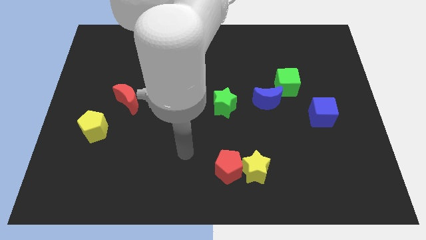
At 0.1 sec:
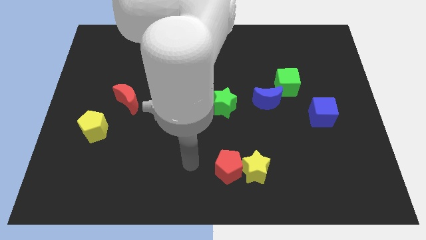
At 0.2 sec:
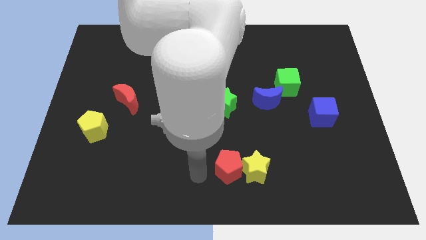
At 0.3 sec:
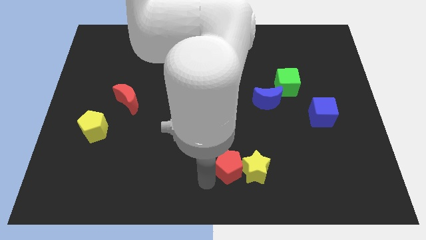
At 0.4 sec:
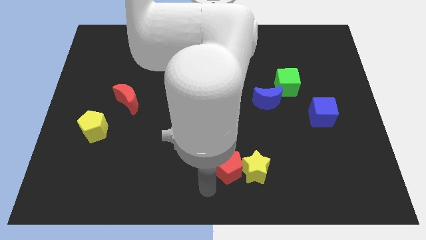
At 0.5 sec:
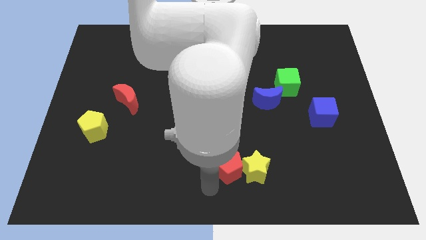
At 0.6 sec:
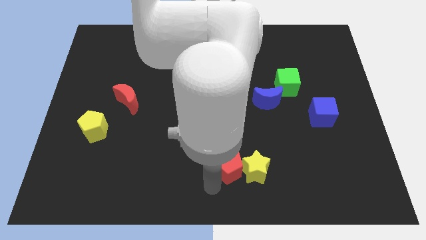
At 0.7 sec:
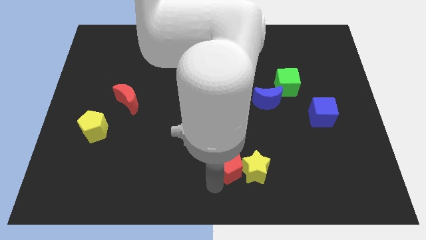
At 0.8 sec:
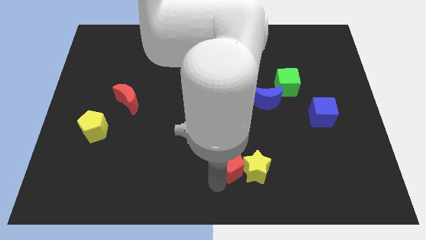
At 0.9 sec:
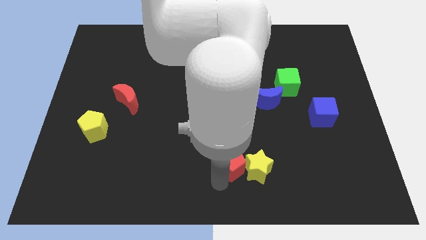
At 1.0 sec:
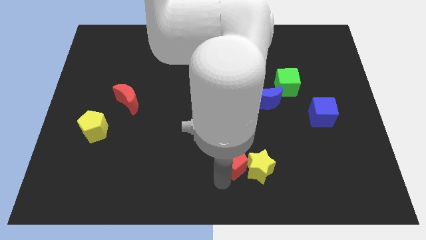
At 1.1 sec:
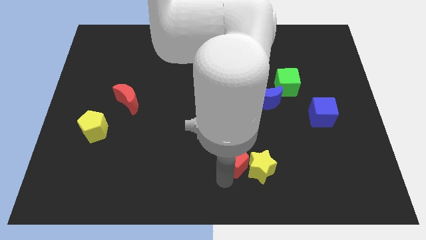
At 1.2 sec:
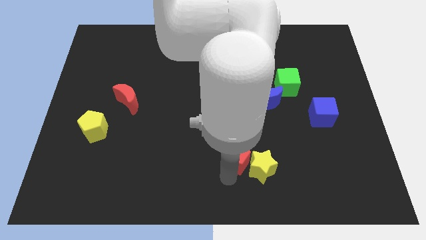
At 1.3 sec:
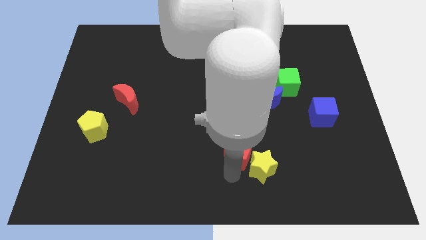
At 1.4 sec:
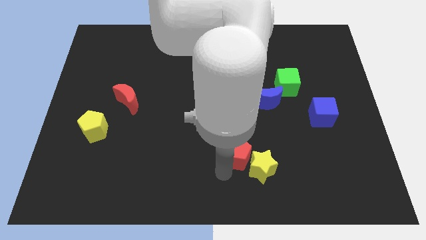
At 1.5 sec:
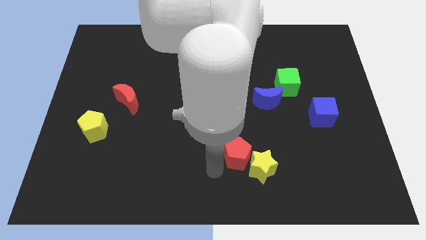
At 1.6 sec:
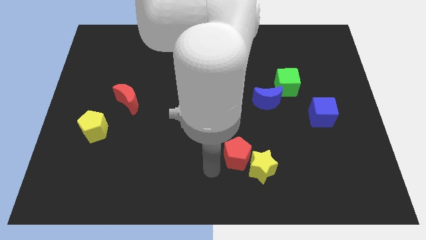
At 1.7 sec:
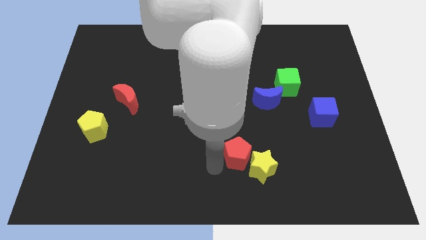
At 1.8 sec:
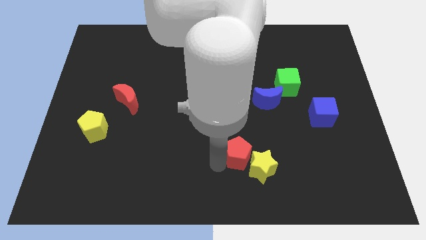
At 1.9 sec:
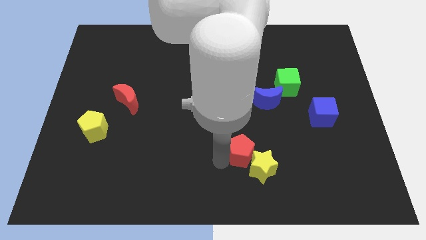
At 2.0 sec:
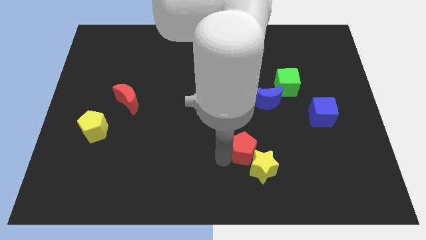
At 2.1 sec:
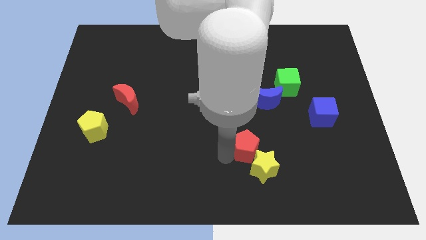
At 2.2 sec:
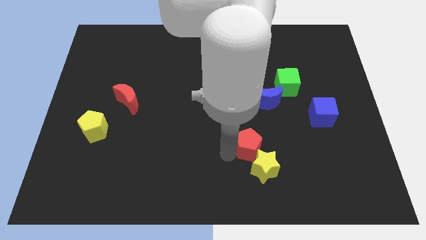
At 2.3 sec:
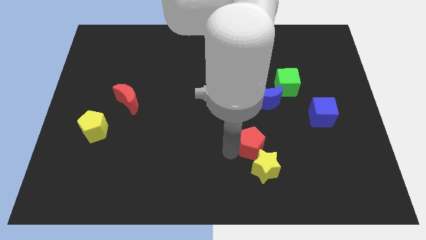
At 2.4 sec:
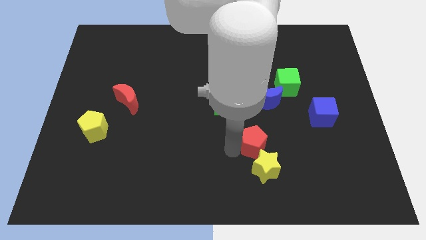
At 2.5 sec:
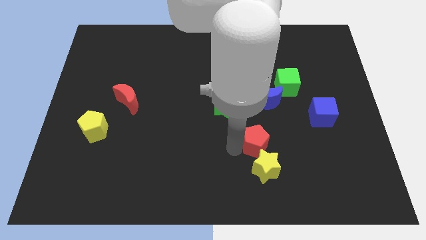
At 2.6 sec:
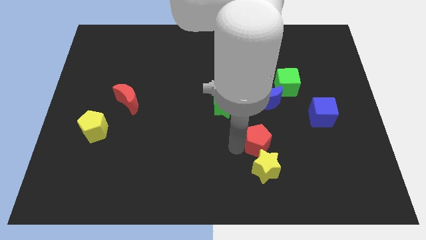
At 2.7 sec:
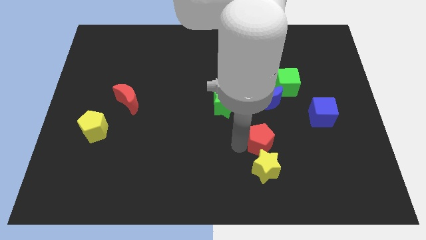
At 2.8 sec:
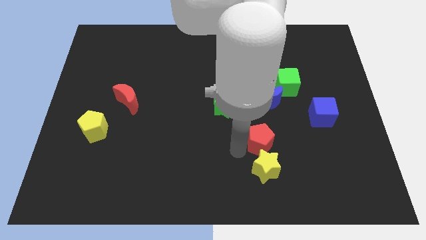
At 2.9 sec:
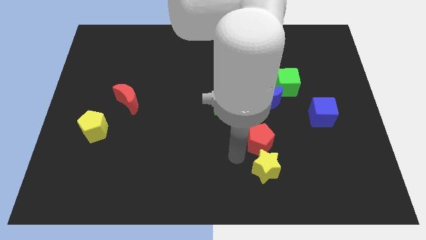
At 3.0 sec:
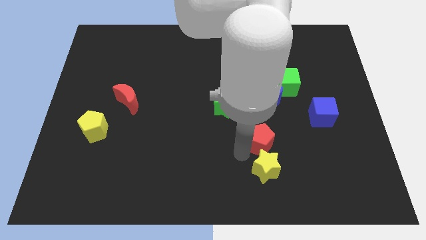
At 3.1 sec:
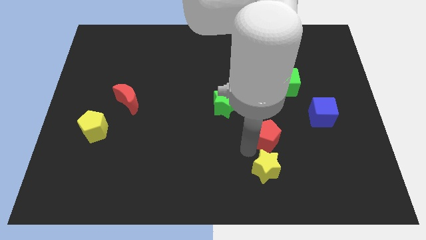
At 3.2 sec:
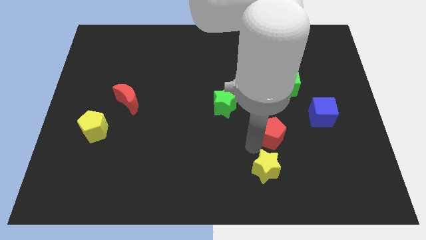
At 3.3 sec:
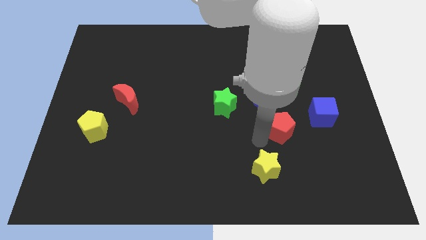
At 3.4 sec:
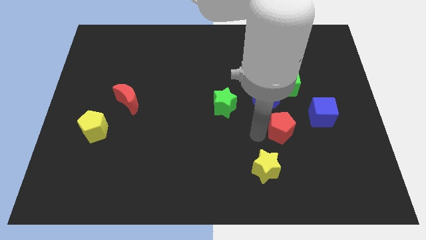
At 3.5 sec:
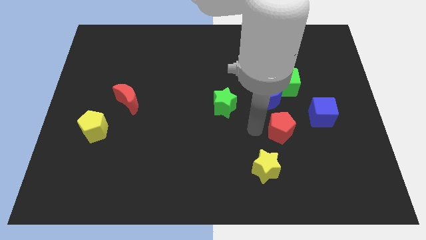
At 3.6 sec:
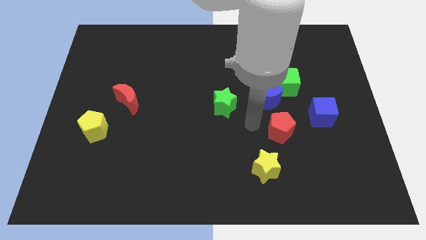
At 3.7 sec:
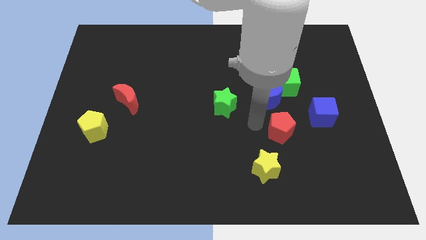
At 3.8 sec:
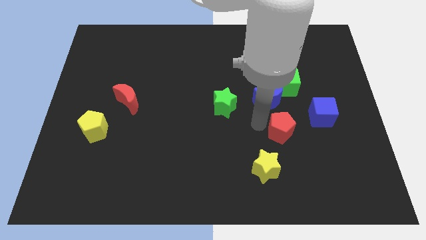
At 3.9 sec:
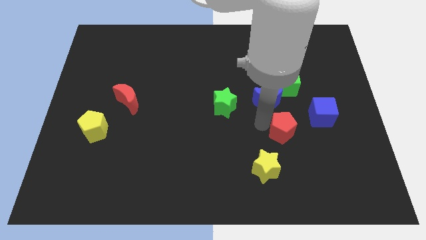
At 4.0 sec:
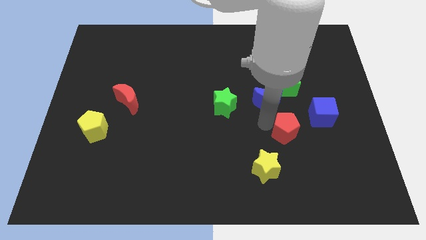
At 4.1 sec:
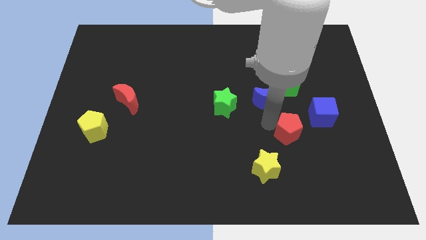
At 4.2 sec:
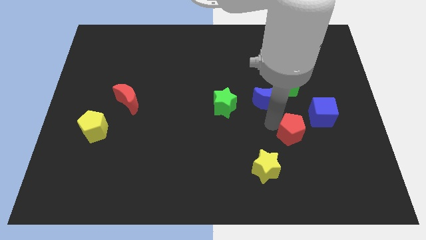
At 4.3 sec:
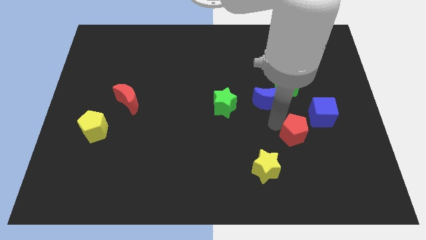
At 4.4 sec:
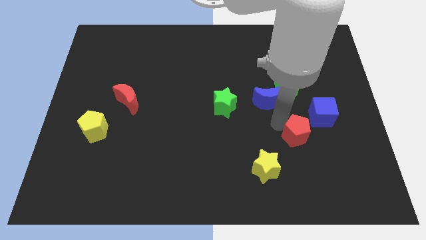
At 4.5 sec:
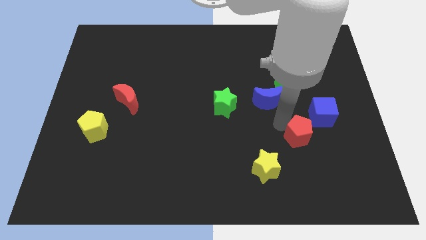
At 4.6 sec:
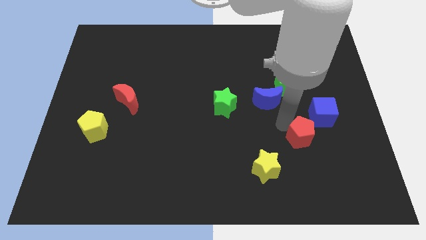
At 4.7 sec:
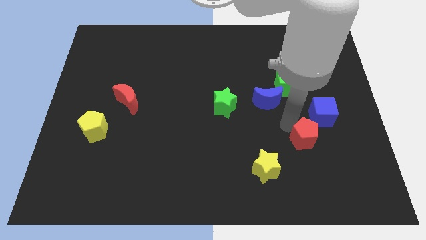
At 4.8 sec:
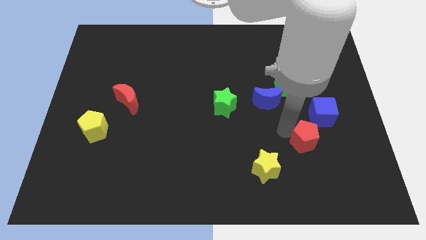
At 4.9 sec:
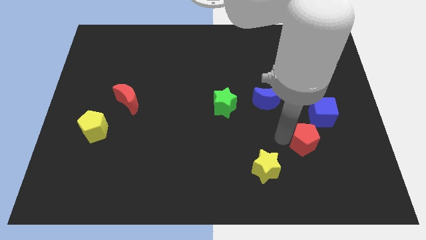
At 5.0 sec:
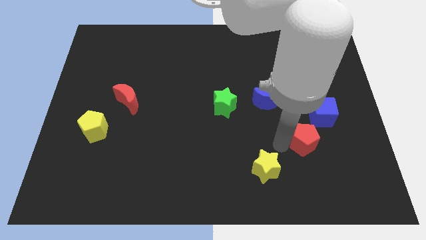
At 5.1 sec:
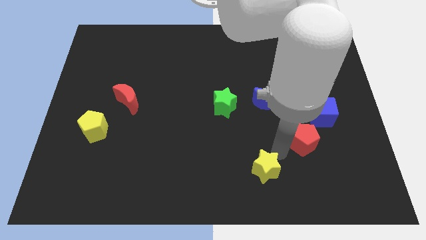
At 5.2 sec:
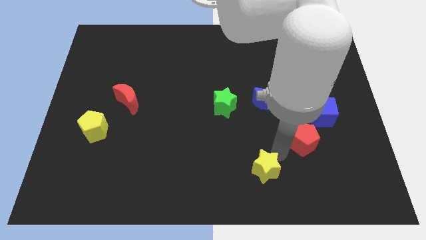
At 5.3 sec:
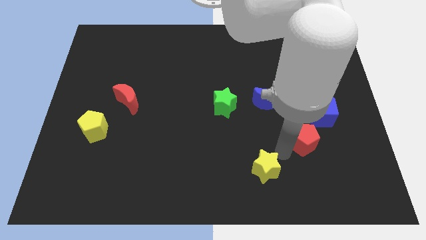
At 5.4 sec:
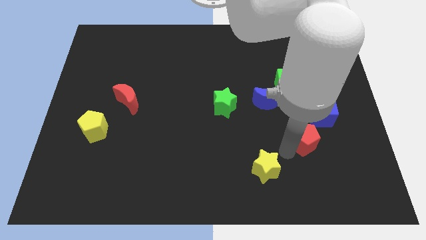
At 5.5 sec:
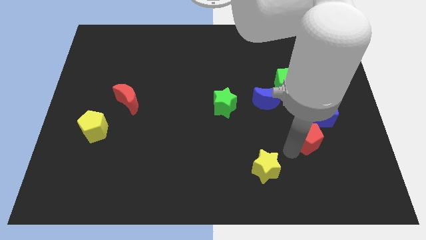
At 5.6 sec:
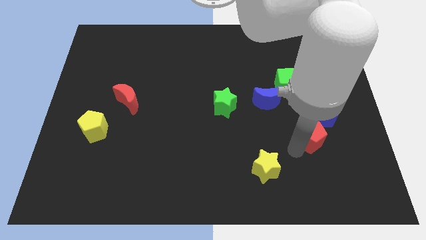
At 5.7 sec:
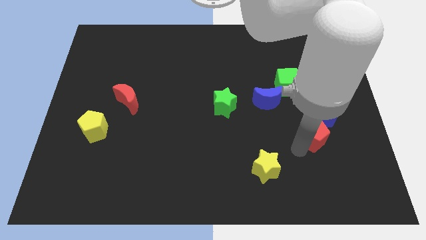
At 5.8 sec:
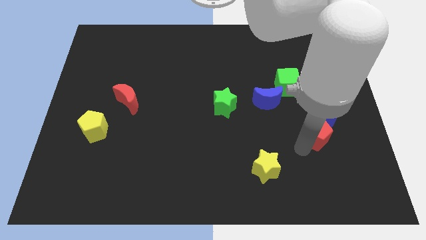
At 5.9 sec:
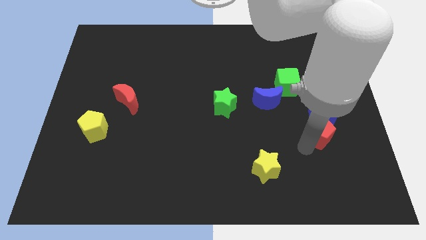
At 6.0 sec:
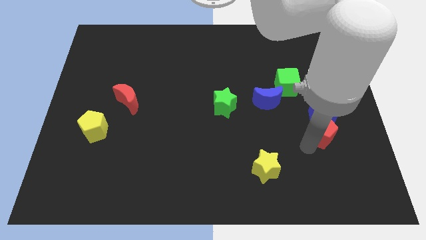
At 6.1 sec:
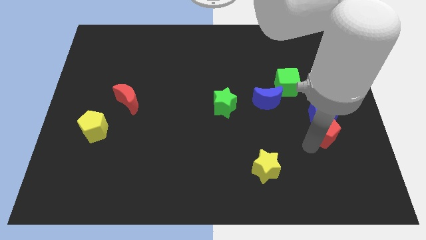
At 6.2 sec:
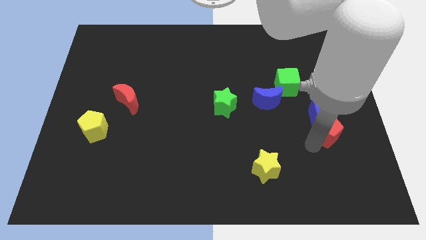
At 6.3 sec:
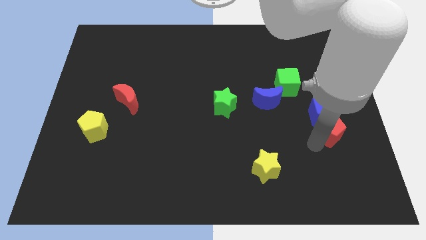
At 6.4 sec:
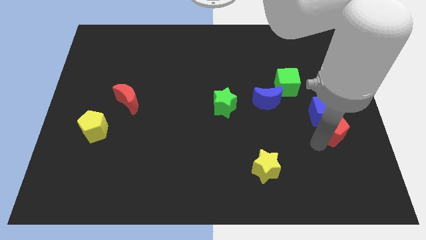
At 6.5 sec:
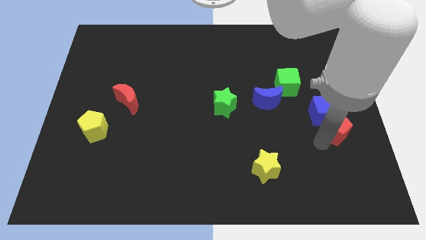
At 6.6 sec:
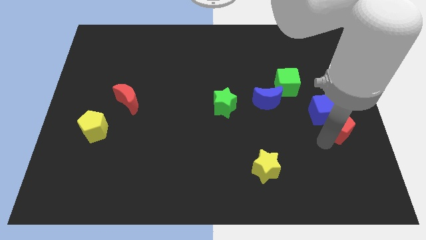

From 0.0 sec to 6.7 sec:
push the red pentagon to the right side
